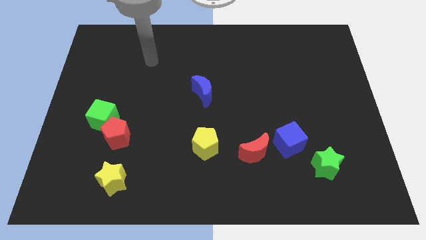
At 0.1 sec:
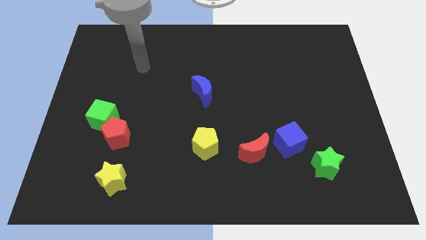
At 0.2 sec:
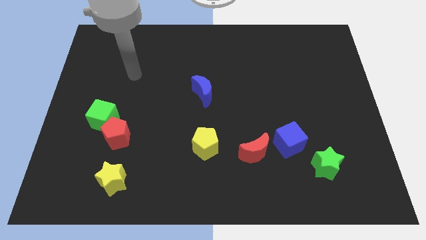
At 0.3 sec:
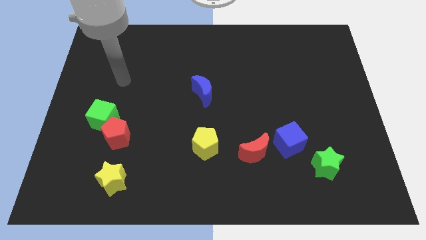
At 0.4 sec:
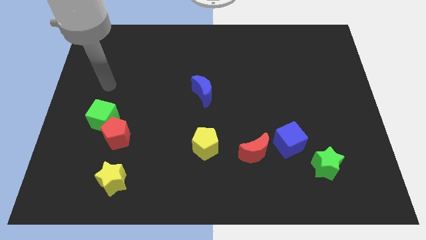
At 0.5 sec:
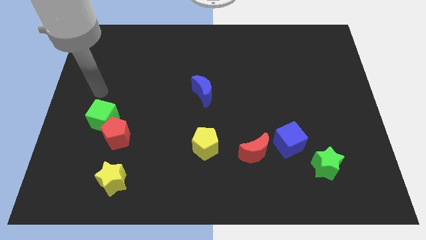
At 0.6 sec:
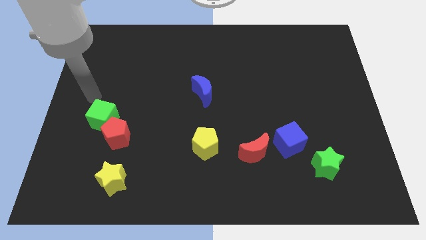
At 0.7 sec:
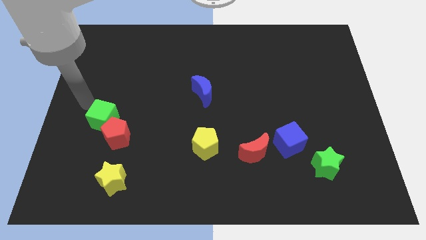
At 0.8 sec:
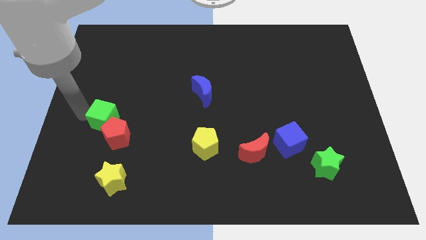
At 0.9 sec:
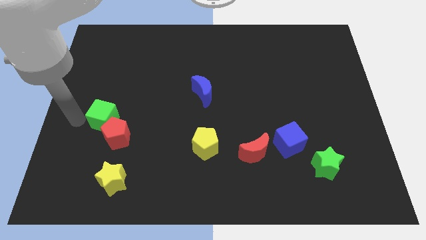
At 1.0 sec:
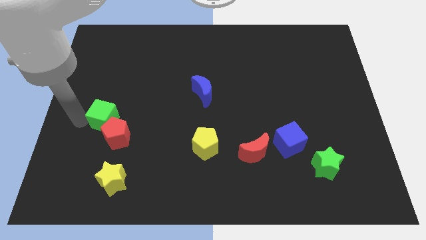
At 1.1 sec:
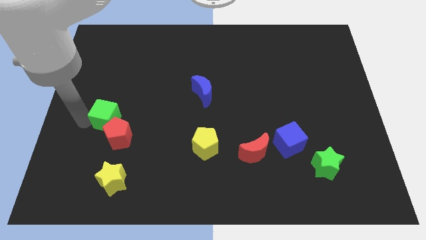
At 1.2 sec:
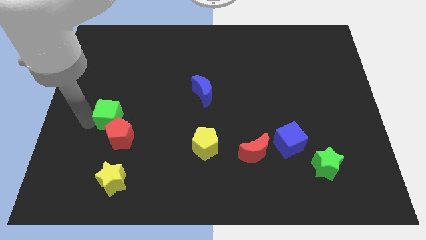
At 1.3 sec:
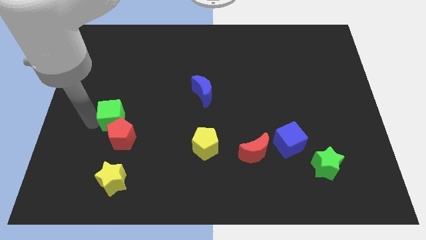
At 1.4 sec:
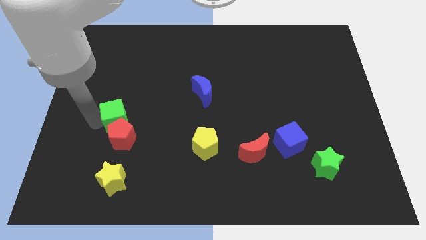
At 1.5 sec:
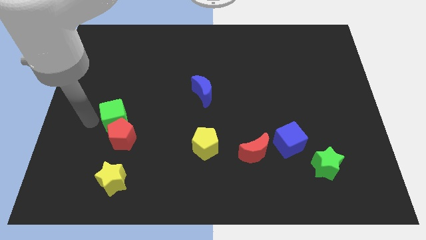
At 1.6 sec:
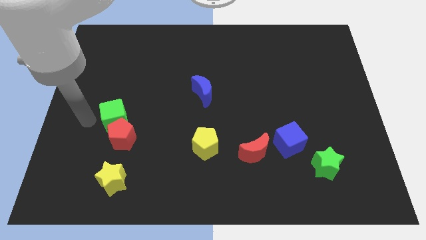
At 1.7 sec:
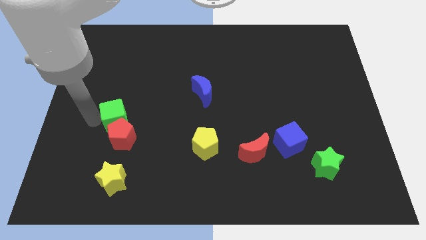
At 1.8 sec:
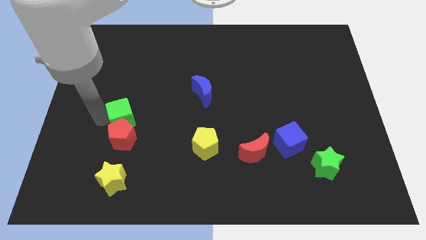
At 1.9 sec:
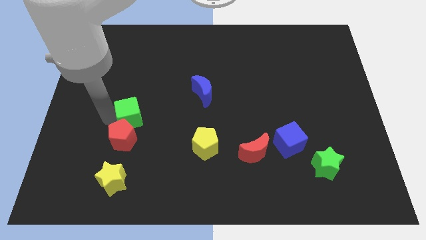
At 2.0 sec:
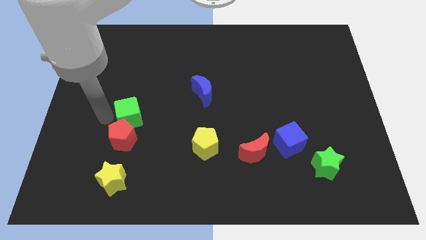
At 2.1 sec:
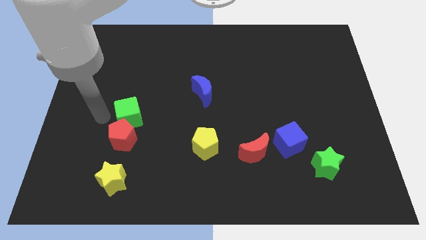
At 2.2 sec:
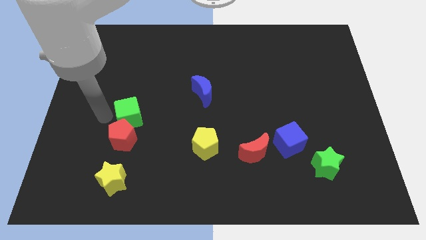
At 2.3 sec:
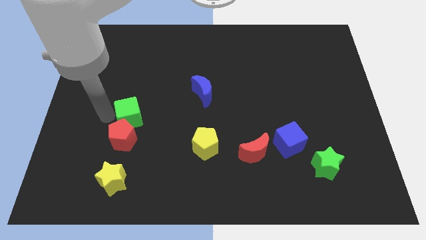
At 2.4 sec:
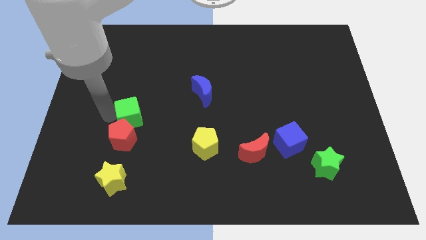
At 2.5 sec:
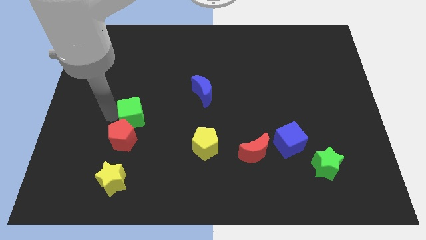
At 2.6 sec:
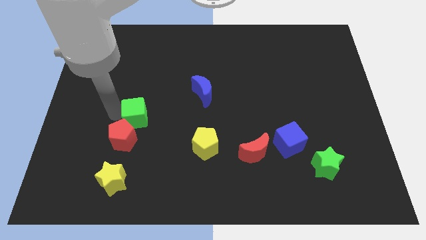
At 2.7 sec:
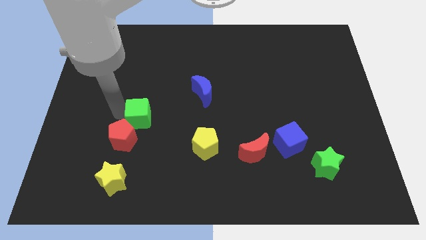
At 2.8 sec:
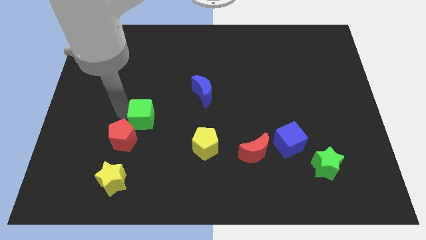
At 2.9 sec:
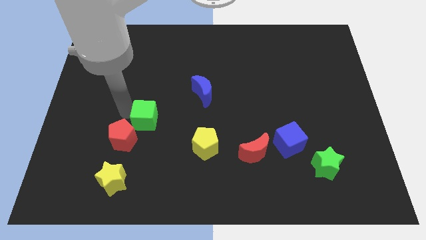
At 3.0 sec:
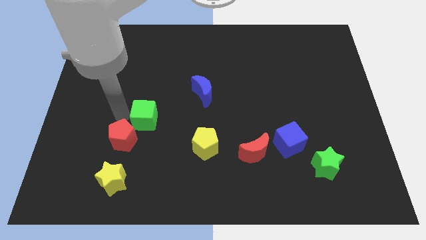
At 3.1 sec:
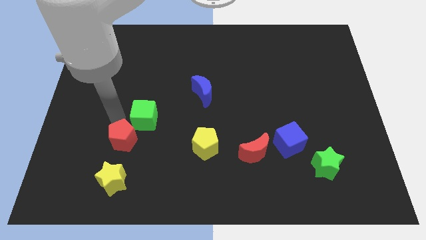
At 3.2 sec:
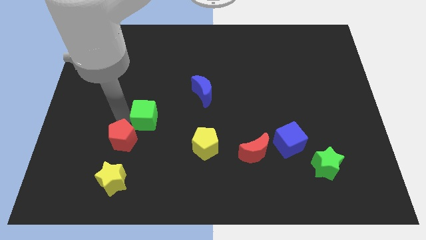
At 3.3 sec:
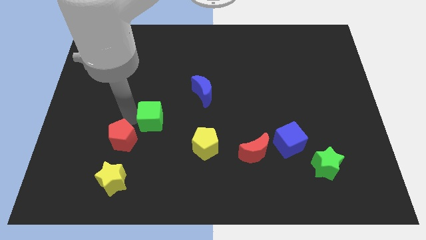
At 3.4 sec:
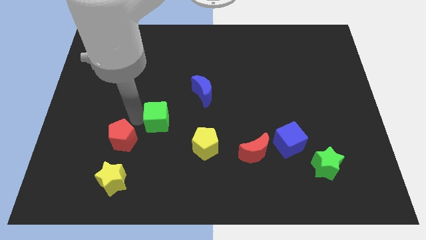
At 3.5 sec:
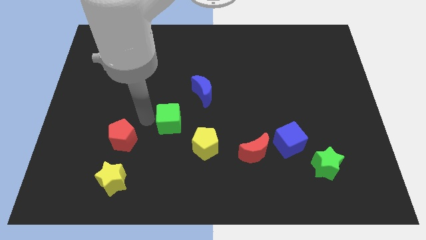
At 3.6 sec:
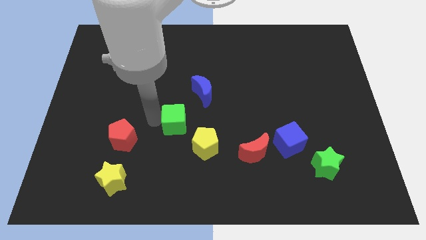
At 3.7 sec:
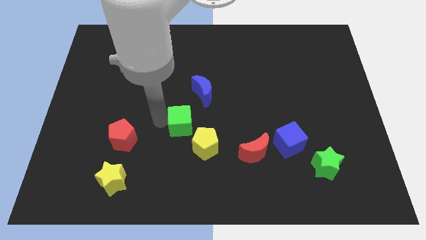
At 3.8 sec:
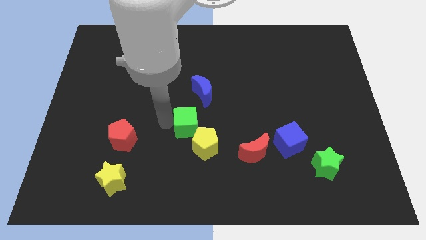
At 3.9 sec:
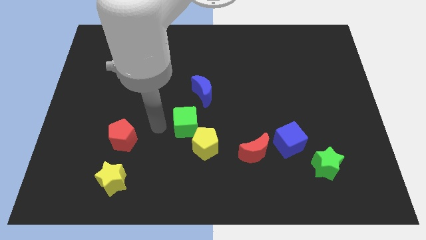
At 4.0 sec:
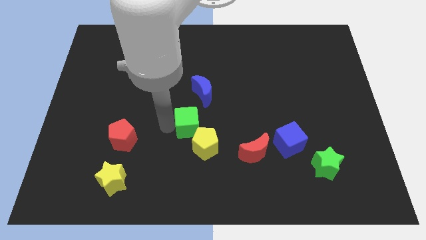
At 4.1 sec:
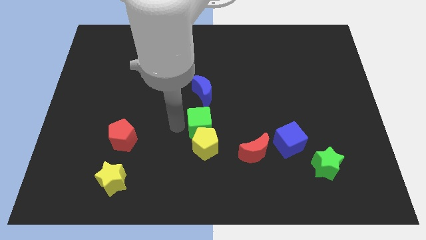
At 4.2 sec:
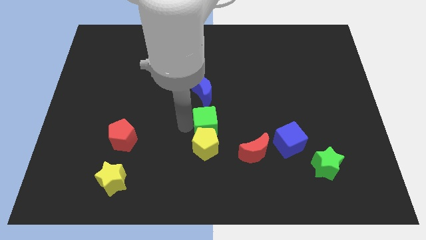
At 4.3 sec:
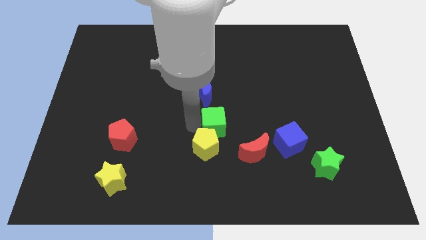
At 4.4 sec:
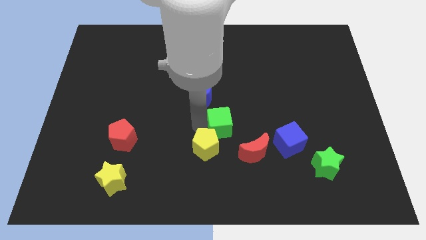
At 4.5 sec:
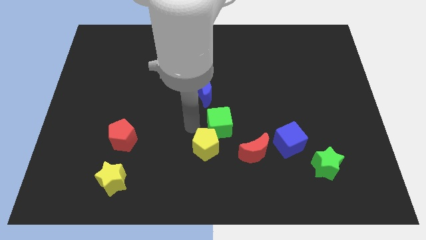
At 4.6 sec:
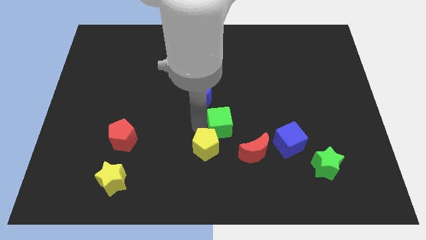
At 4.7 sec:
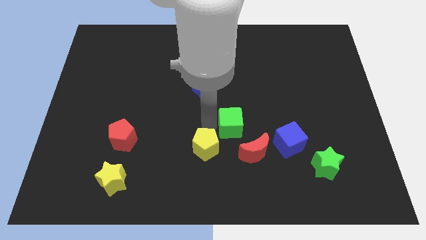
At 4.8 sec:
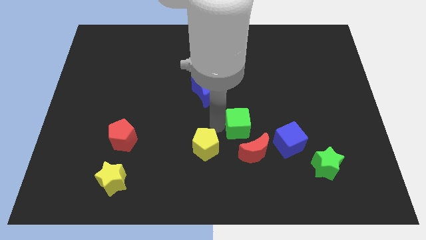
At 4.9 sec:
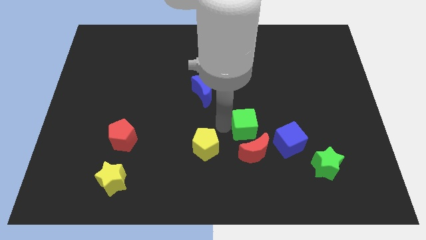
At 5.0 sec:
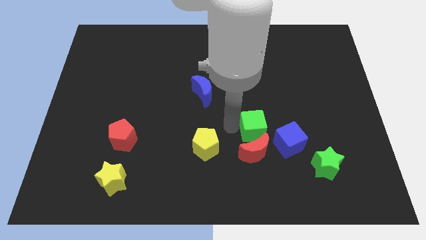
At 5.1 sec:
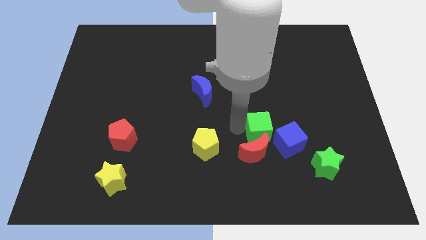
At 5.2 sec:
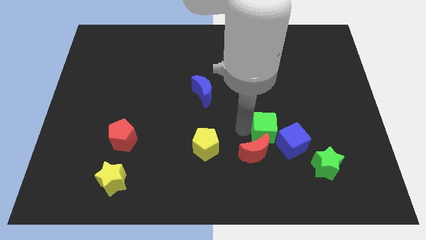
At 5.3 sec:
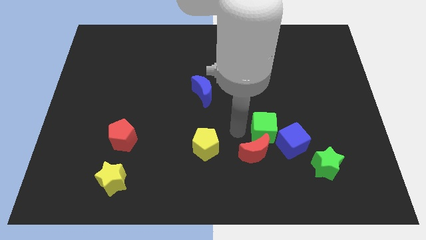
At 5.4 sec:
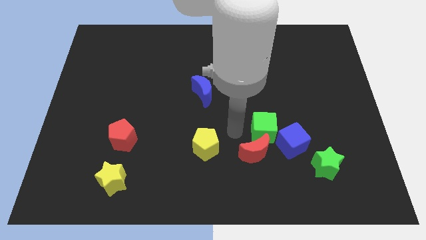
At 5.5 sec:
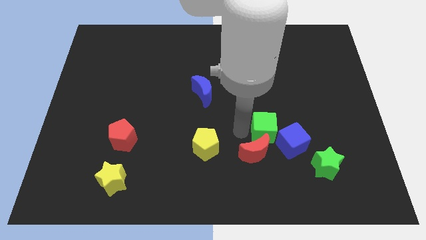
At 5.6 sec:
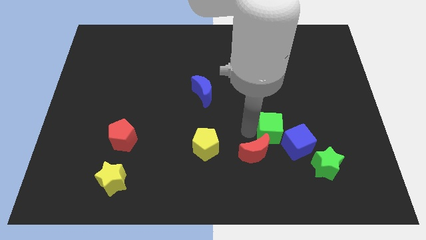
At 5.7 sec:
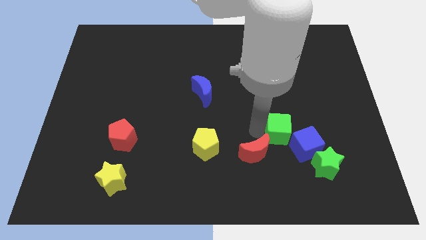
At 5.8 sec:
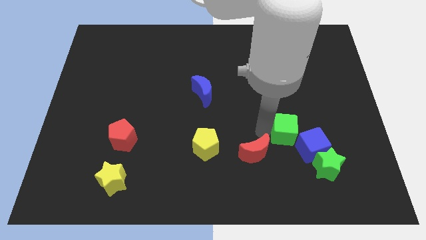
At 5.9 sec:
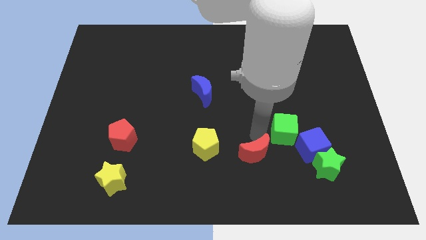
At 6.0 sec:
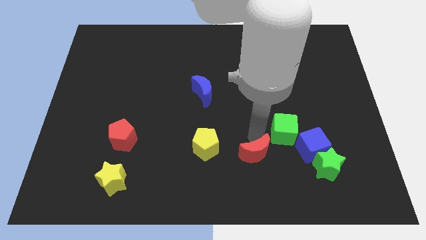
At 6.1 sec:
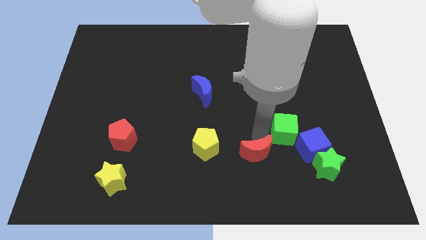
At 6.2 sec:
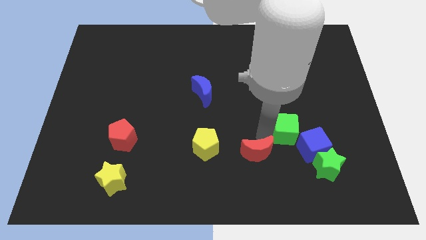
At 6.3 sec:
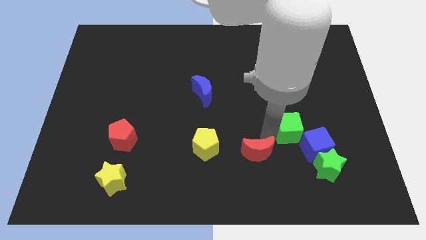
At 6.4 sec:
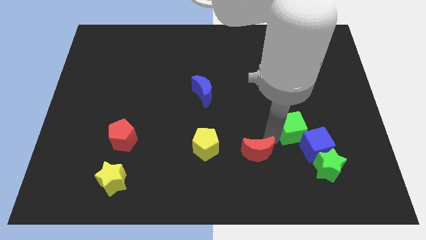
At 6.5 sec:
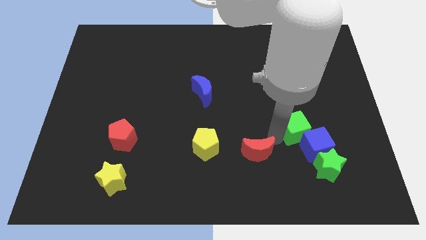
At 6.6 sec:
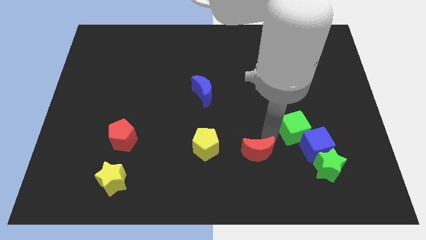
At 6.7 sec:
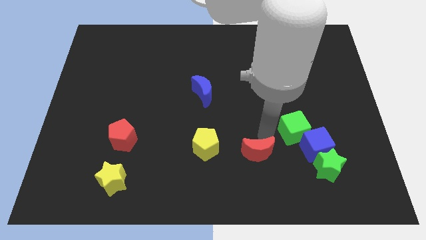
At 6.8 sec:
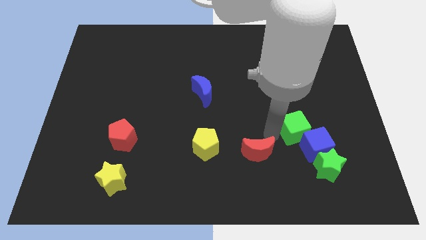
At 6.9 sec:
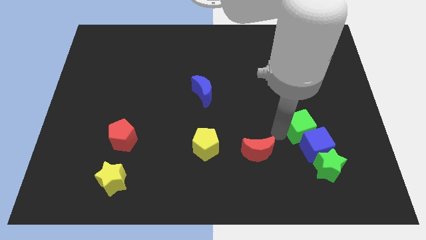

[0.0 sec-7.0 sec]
put the green cube above the green star
